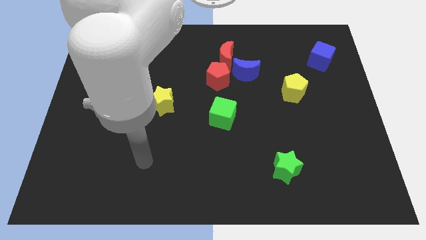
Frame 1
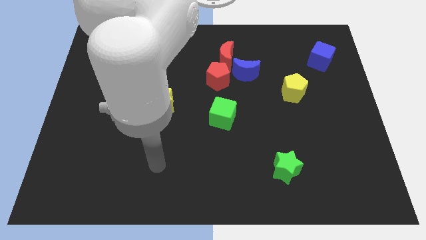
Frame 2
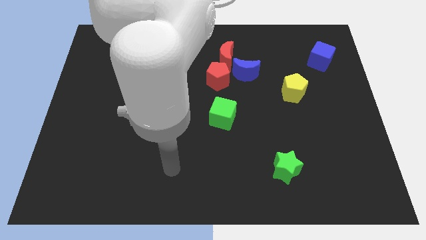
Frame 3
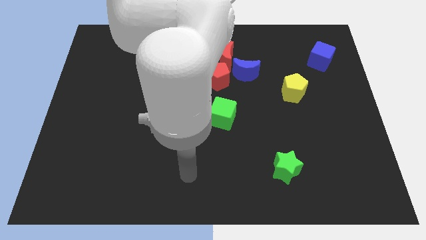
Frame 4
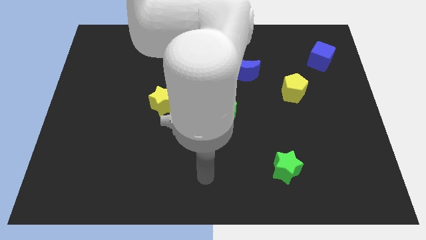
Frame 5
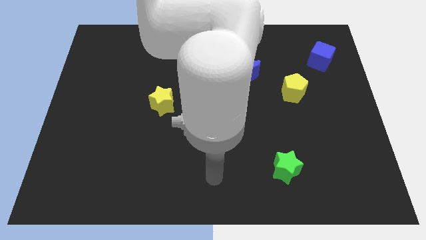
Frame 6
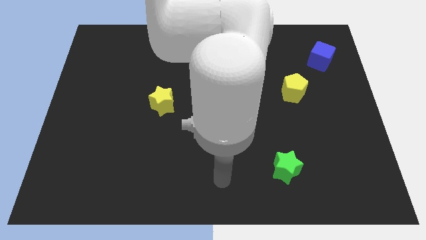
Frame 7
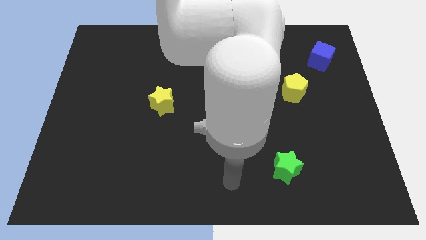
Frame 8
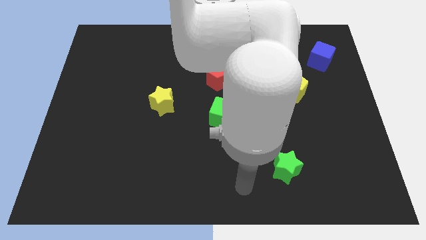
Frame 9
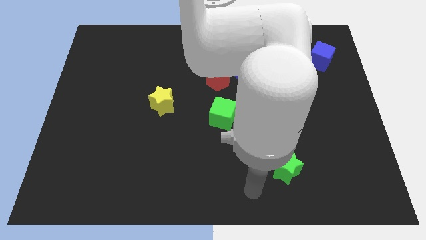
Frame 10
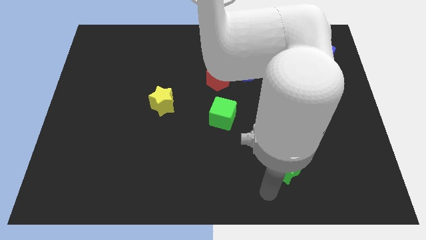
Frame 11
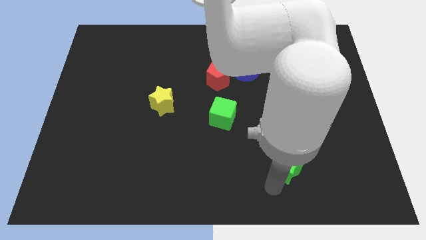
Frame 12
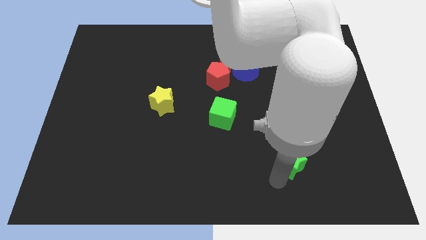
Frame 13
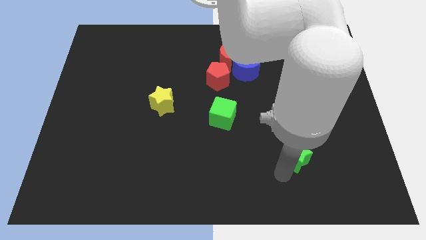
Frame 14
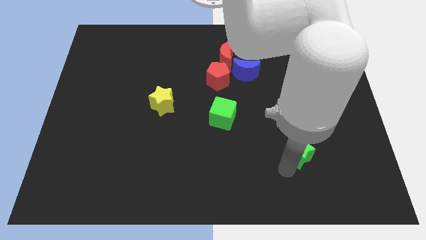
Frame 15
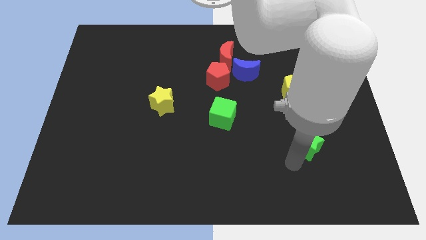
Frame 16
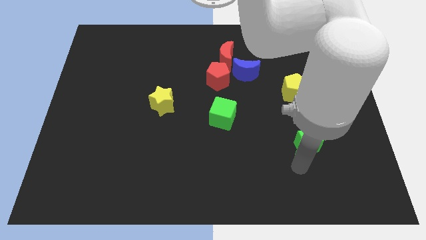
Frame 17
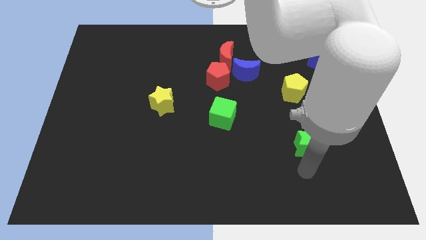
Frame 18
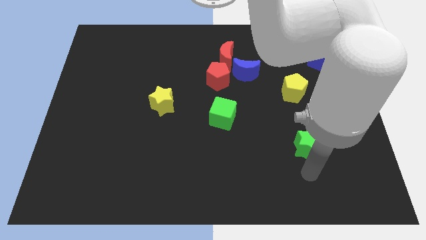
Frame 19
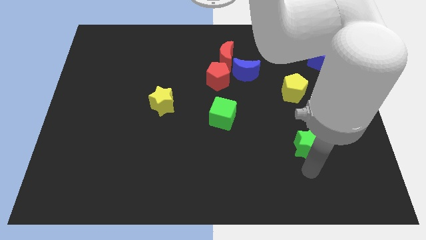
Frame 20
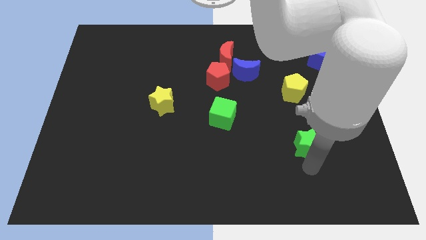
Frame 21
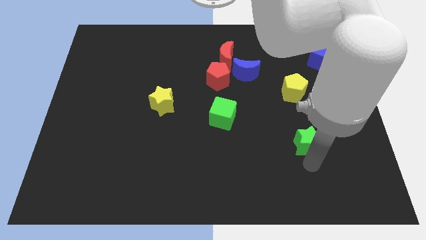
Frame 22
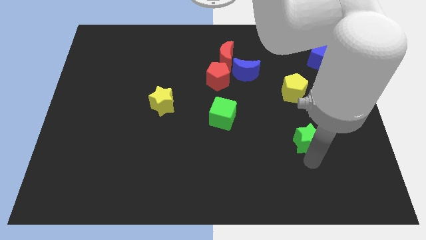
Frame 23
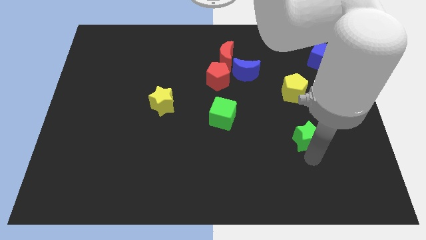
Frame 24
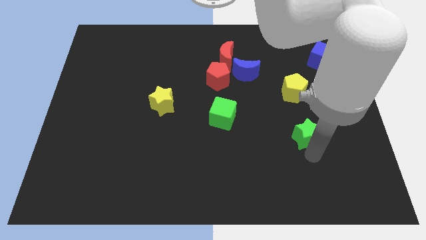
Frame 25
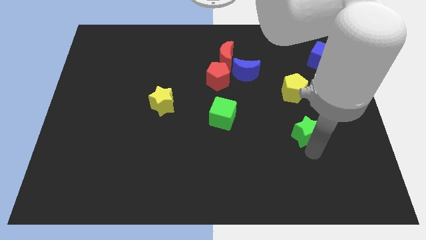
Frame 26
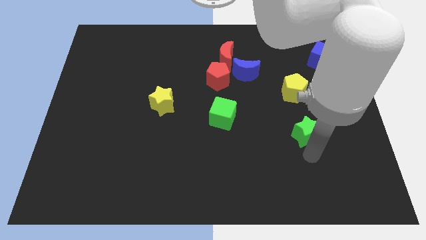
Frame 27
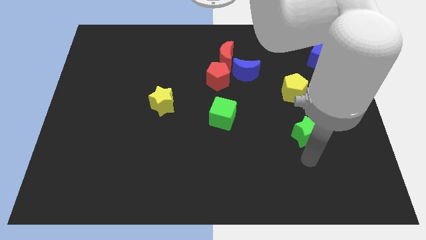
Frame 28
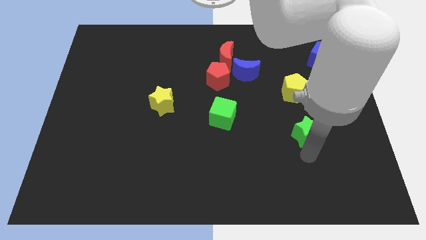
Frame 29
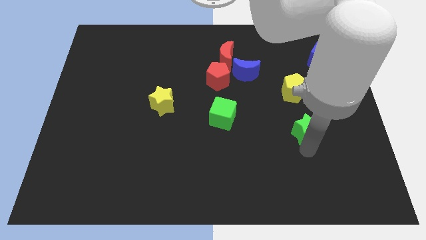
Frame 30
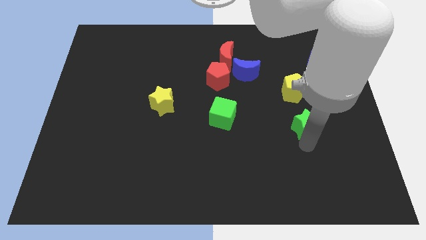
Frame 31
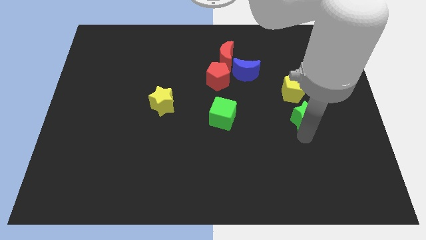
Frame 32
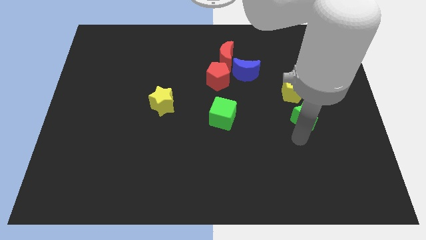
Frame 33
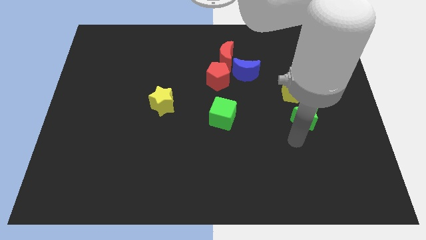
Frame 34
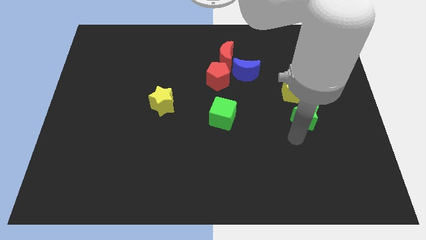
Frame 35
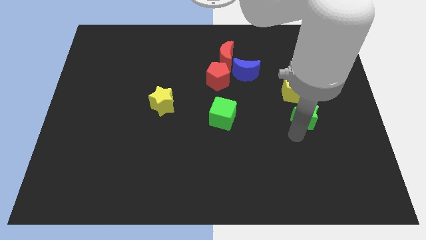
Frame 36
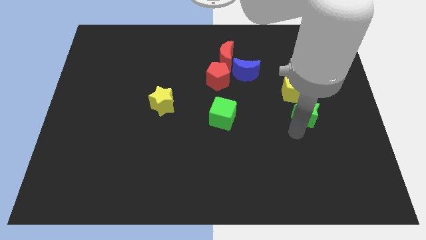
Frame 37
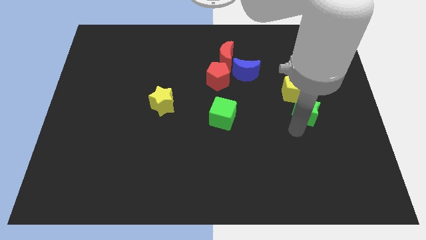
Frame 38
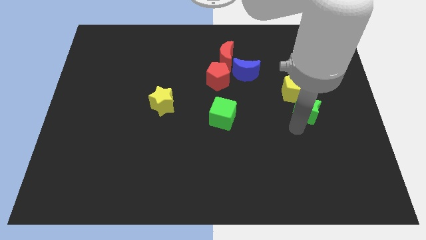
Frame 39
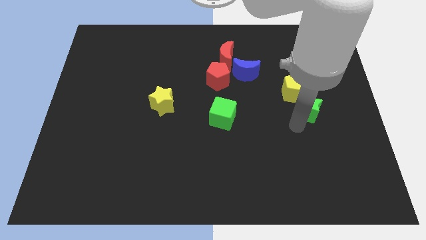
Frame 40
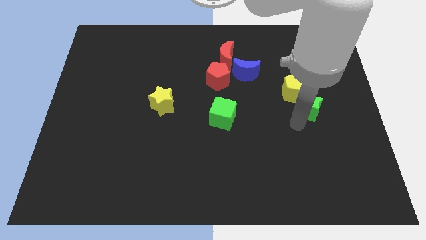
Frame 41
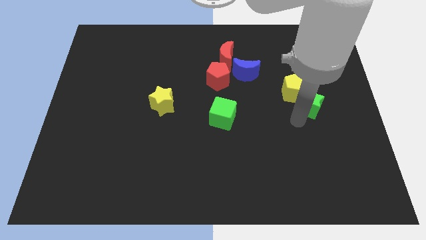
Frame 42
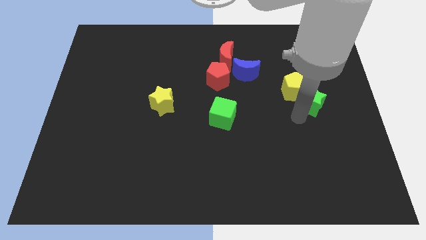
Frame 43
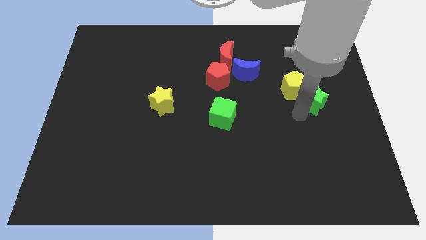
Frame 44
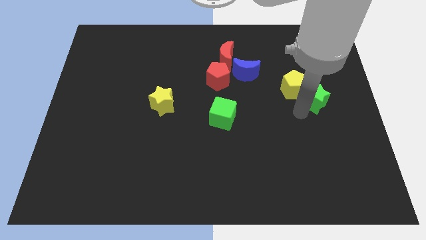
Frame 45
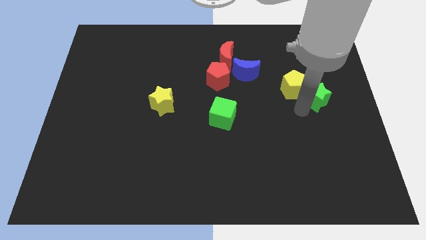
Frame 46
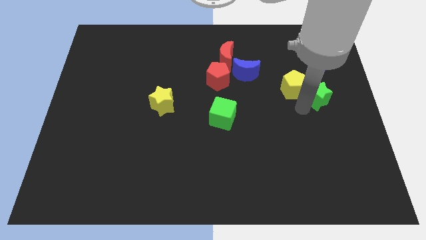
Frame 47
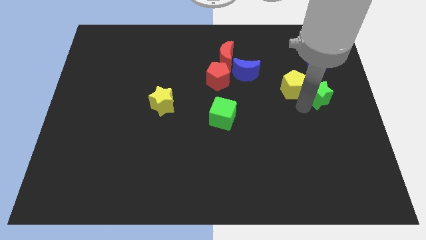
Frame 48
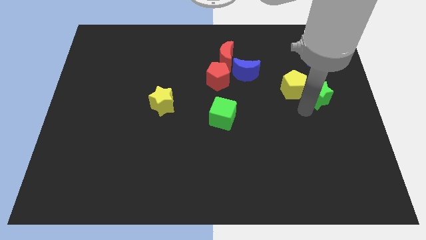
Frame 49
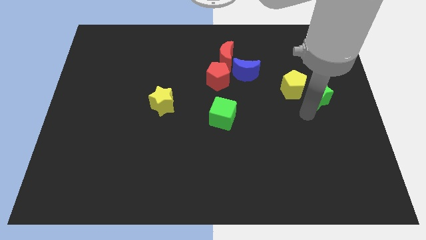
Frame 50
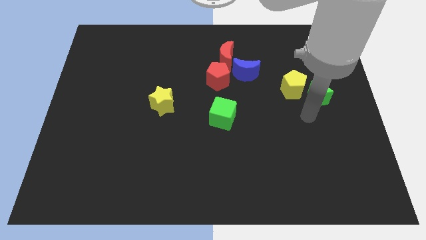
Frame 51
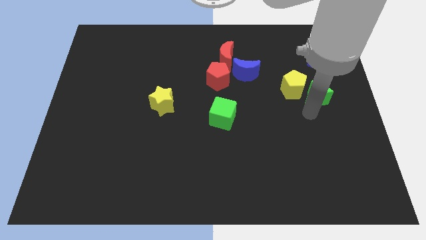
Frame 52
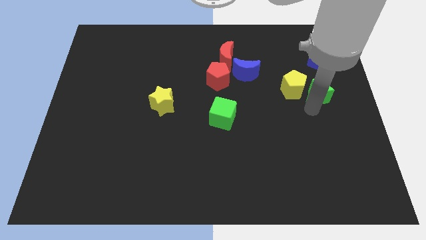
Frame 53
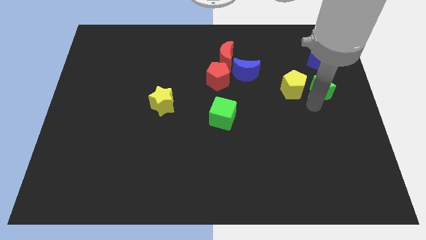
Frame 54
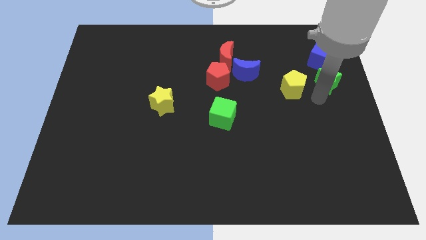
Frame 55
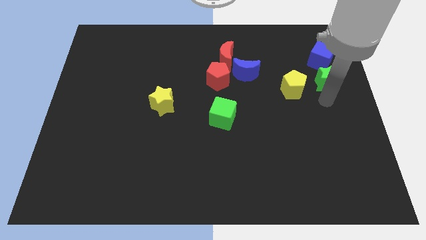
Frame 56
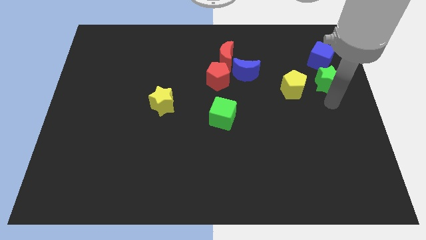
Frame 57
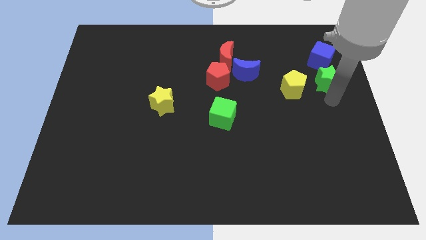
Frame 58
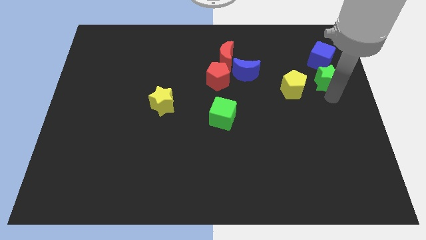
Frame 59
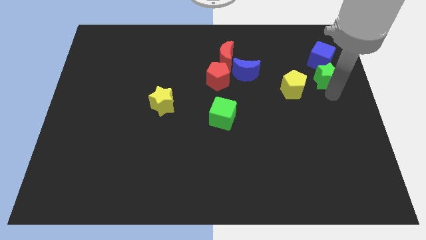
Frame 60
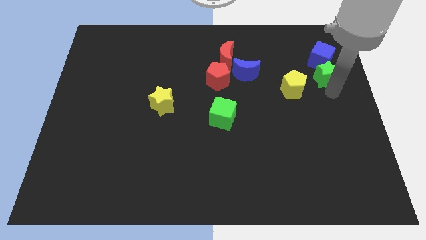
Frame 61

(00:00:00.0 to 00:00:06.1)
move the green star close to the blue cube

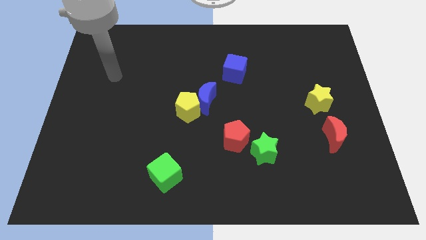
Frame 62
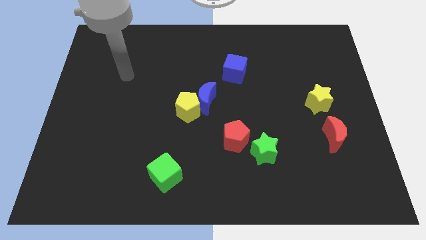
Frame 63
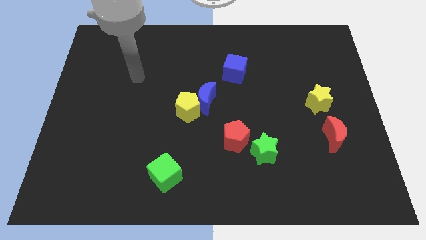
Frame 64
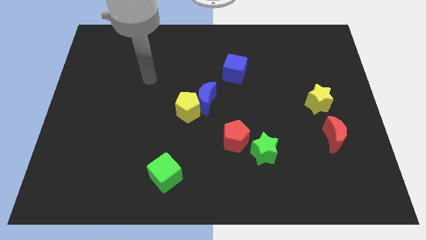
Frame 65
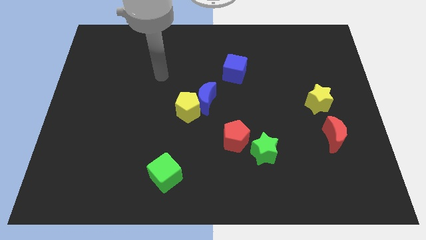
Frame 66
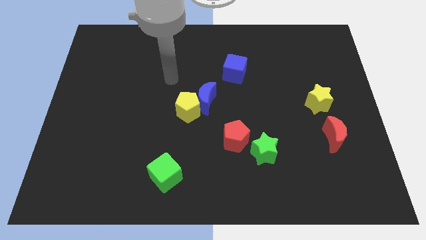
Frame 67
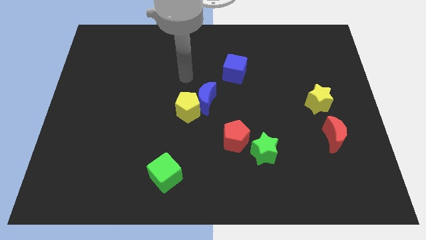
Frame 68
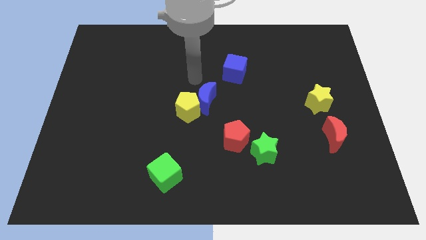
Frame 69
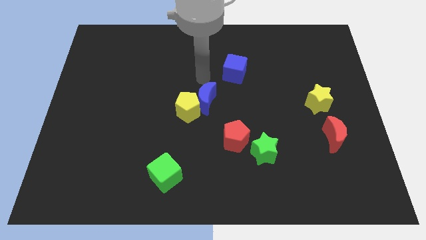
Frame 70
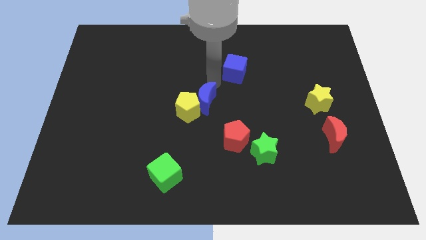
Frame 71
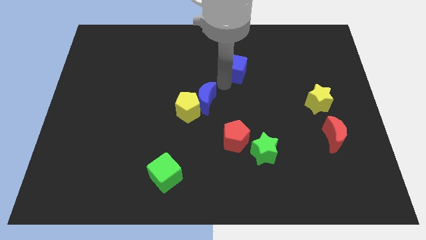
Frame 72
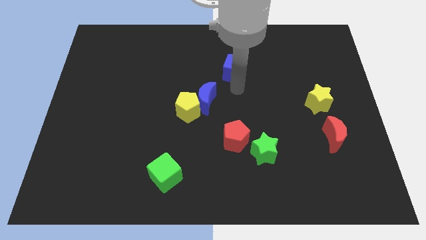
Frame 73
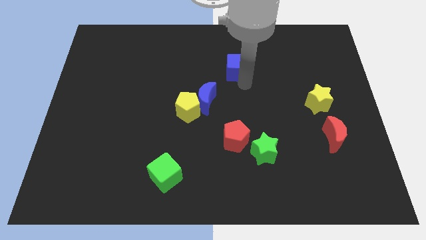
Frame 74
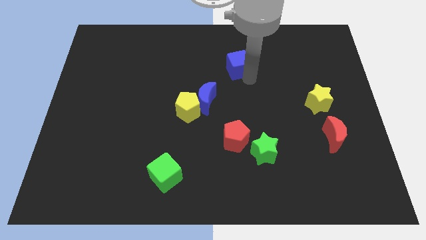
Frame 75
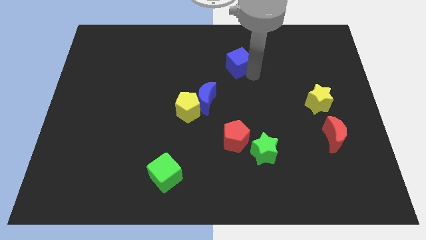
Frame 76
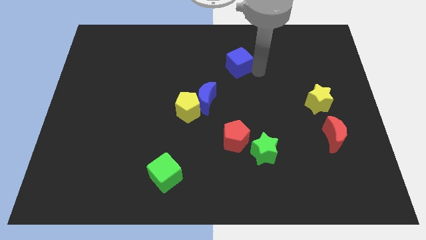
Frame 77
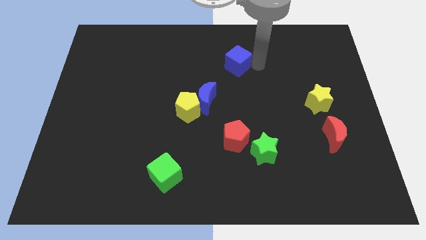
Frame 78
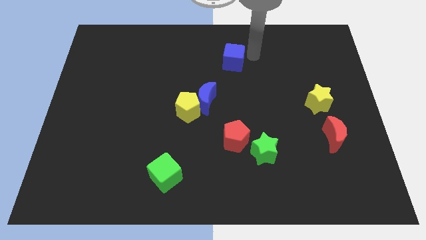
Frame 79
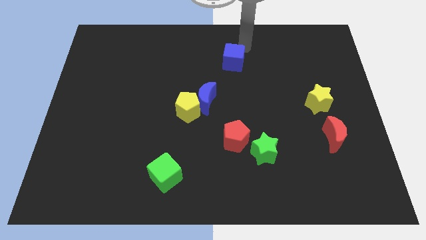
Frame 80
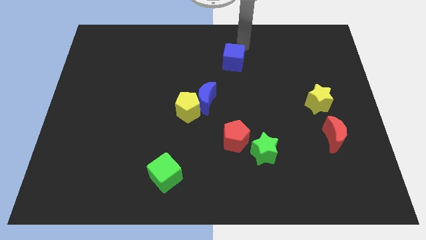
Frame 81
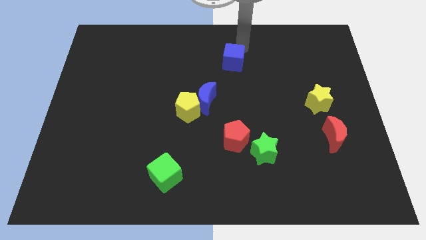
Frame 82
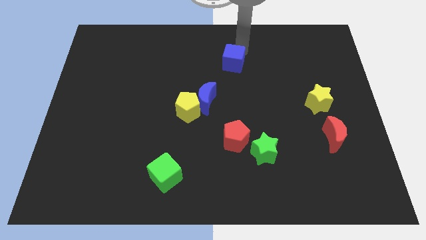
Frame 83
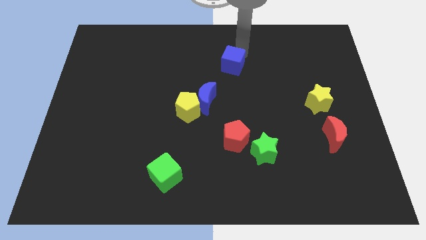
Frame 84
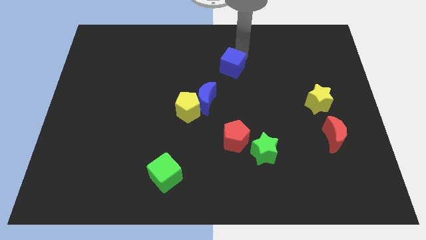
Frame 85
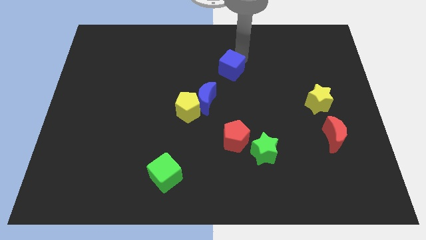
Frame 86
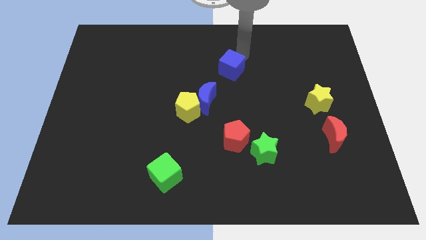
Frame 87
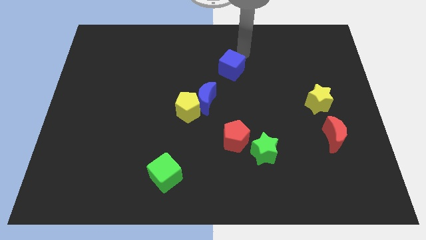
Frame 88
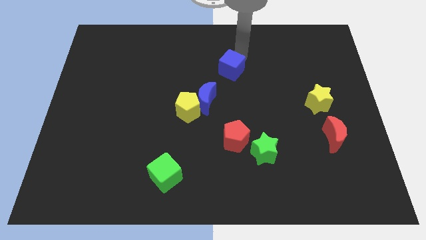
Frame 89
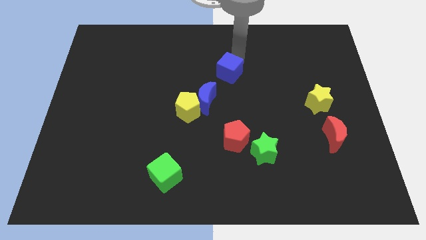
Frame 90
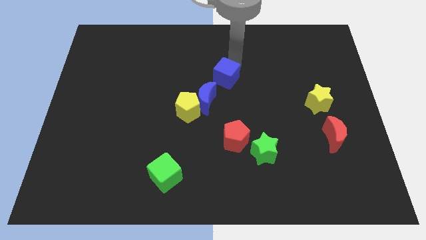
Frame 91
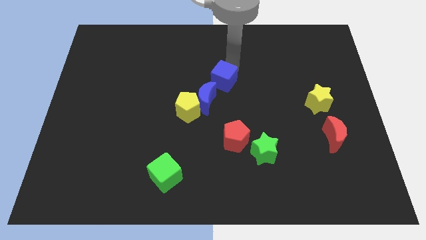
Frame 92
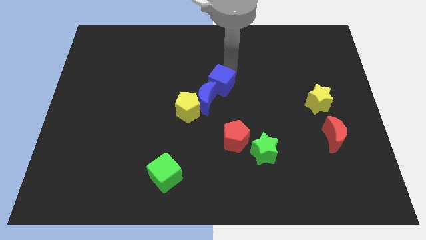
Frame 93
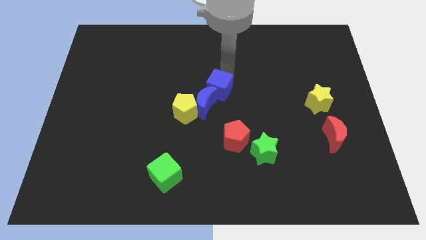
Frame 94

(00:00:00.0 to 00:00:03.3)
push the blue cube close to the blue moon
